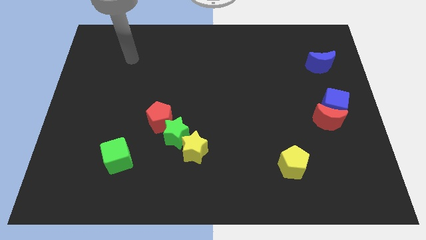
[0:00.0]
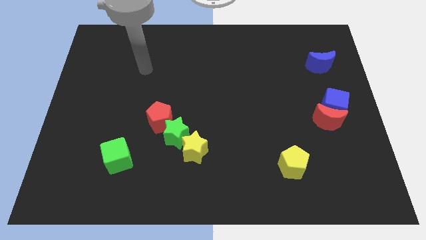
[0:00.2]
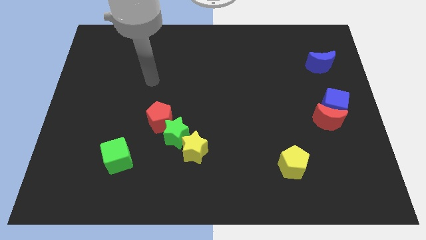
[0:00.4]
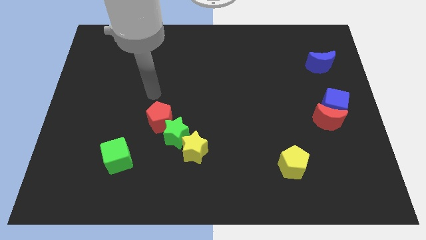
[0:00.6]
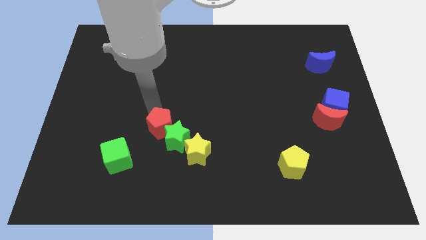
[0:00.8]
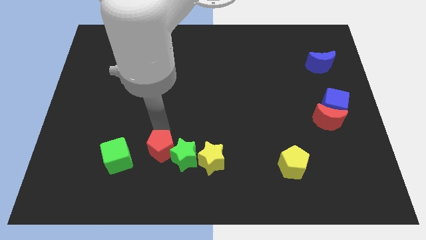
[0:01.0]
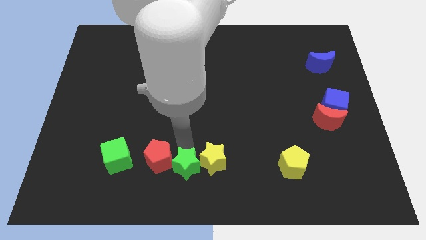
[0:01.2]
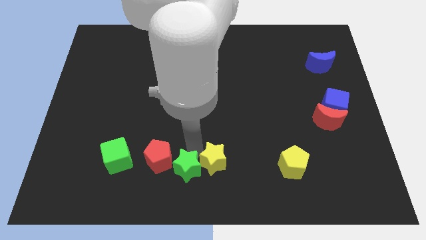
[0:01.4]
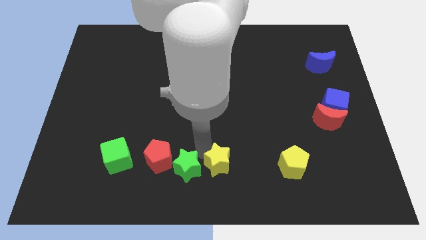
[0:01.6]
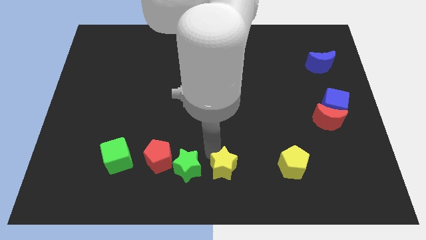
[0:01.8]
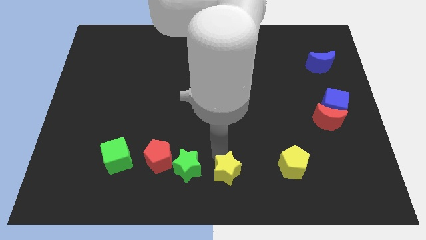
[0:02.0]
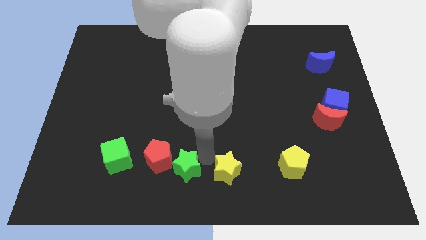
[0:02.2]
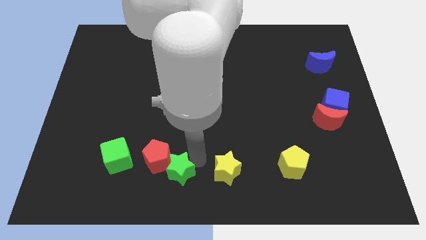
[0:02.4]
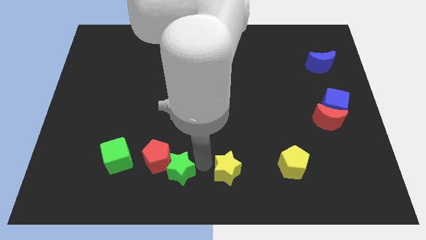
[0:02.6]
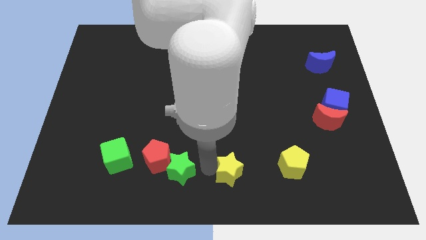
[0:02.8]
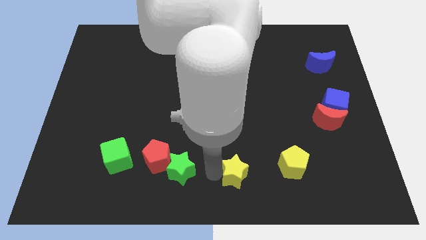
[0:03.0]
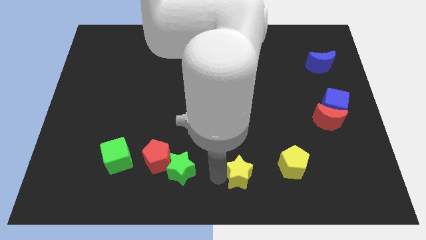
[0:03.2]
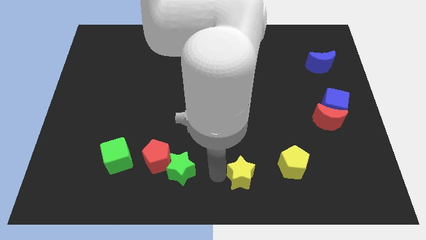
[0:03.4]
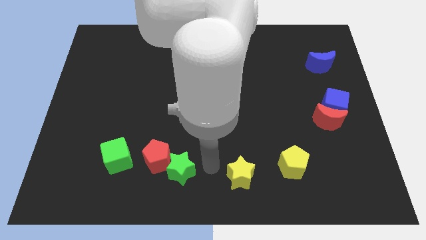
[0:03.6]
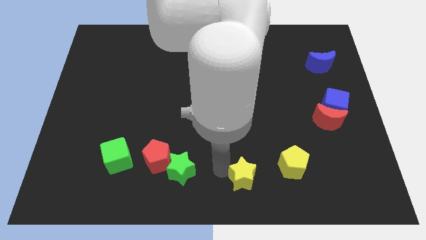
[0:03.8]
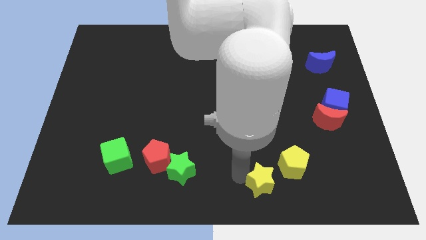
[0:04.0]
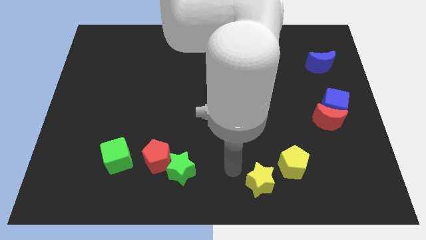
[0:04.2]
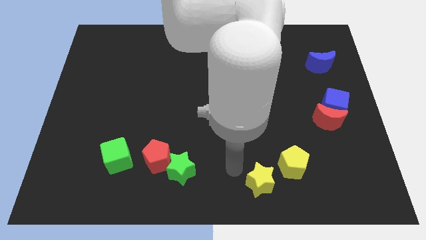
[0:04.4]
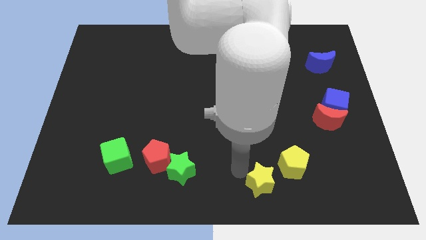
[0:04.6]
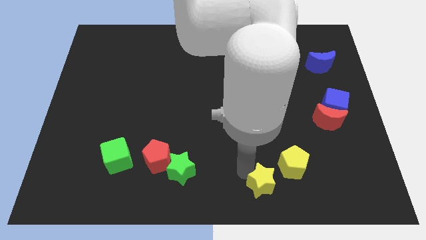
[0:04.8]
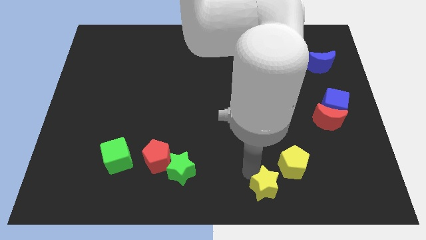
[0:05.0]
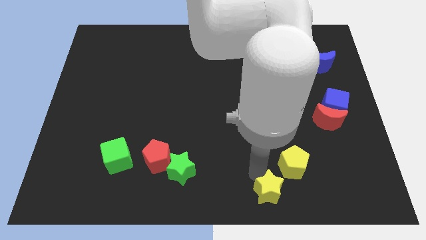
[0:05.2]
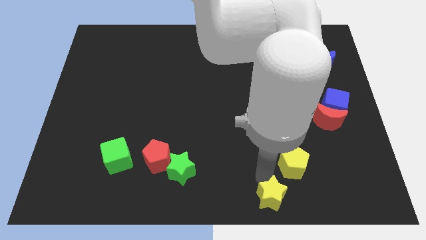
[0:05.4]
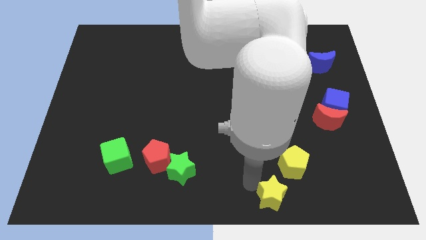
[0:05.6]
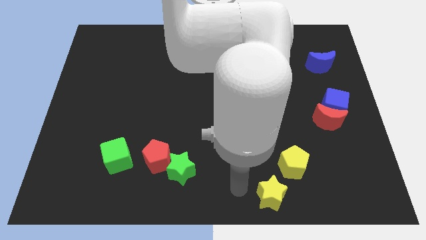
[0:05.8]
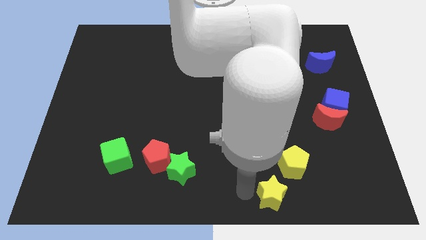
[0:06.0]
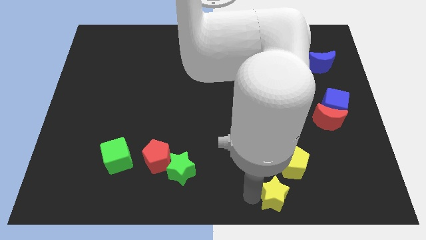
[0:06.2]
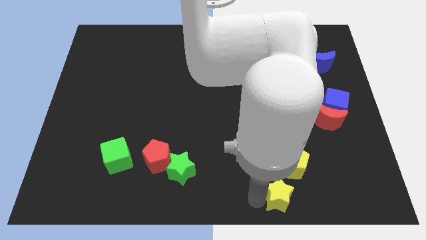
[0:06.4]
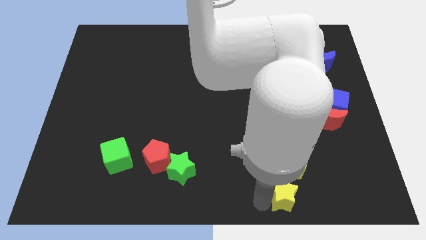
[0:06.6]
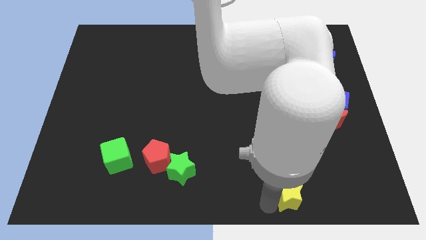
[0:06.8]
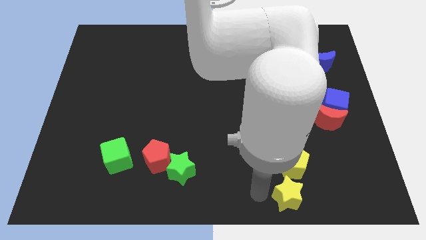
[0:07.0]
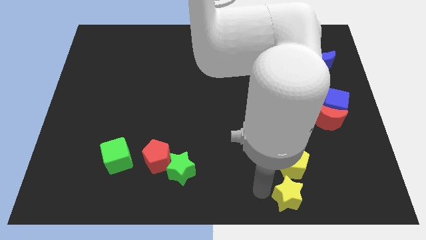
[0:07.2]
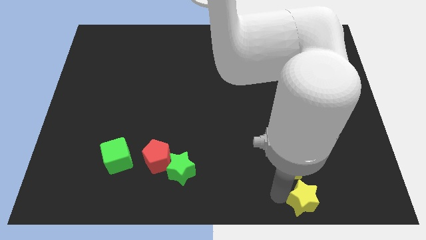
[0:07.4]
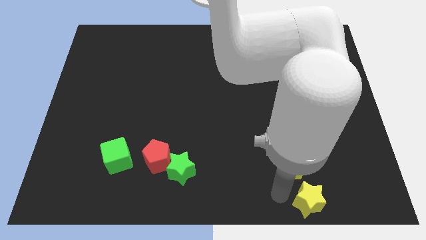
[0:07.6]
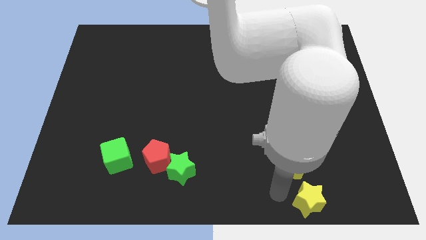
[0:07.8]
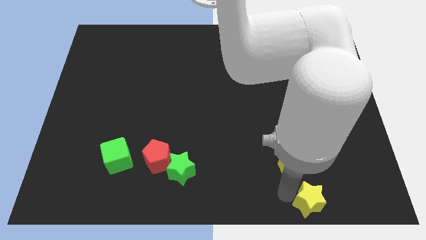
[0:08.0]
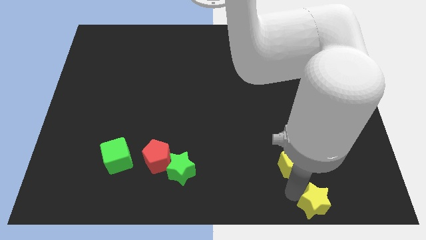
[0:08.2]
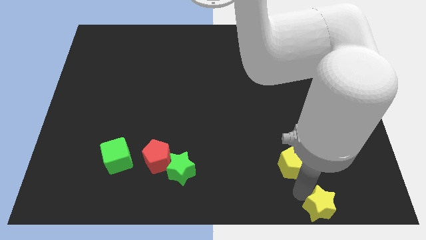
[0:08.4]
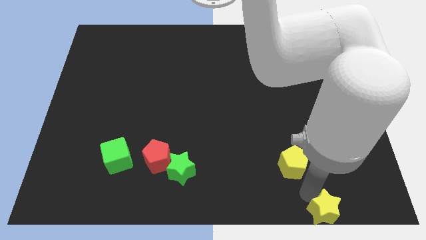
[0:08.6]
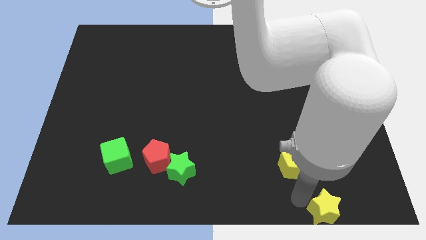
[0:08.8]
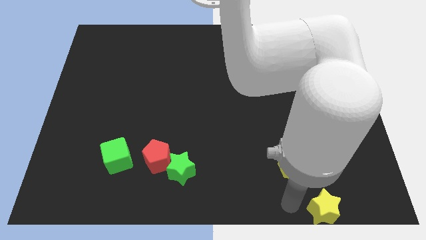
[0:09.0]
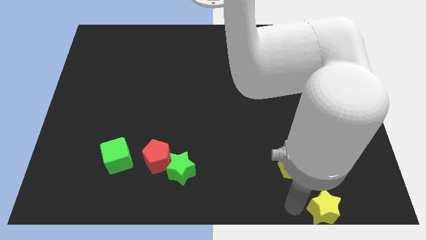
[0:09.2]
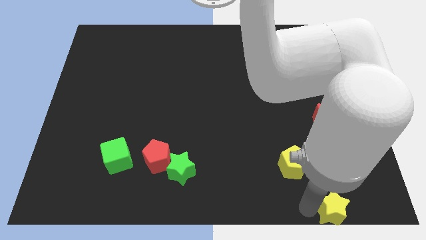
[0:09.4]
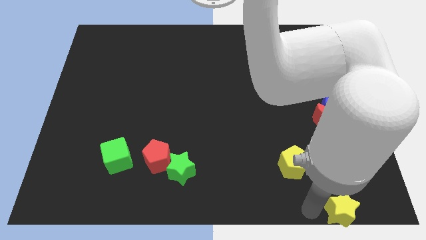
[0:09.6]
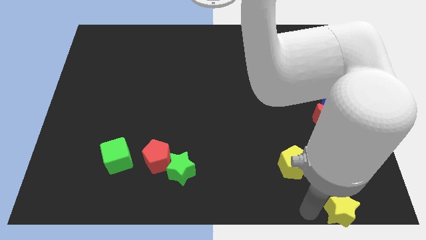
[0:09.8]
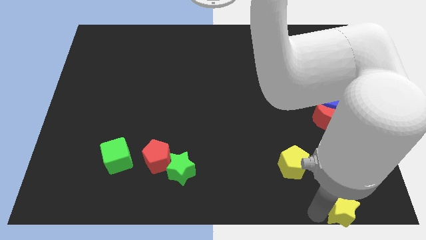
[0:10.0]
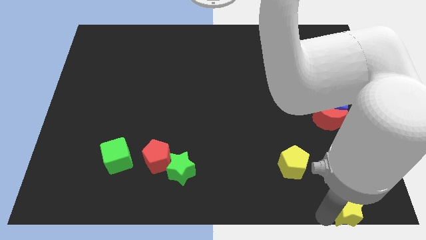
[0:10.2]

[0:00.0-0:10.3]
move the yellow star to the bottom right

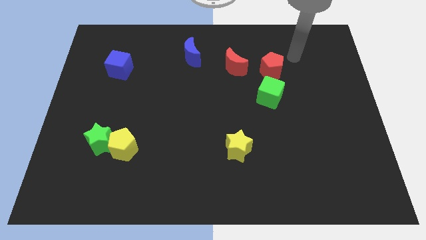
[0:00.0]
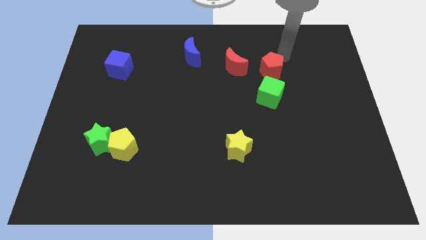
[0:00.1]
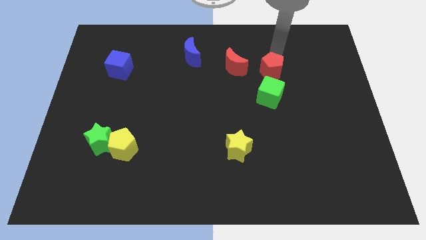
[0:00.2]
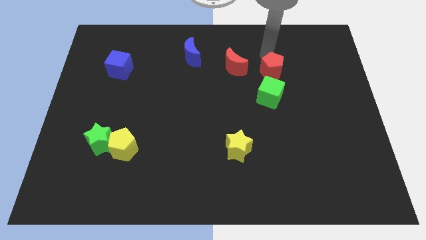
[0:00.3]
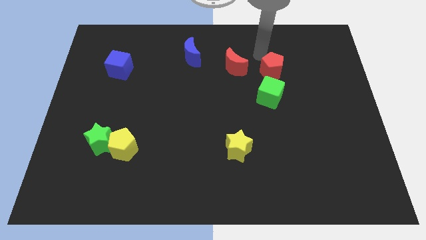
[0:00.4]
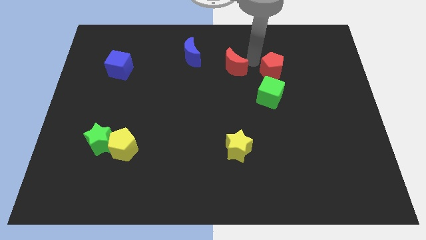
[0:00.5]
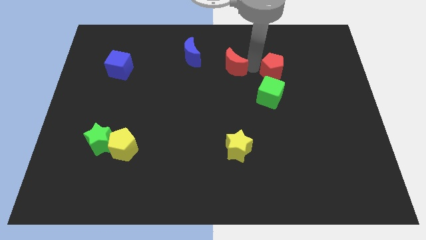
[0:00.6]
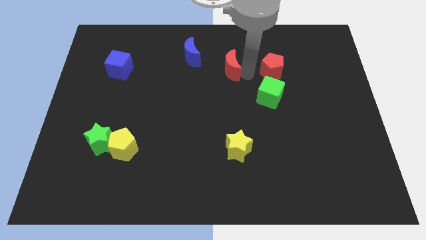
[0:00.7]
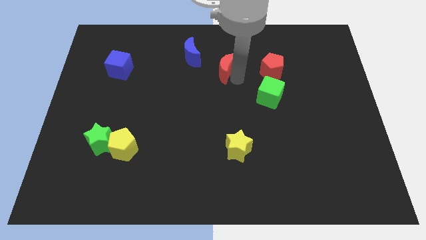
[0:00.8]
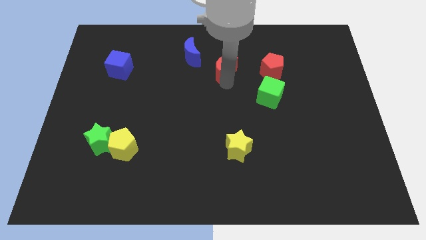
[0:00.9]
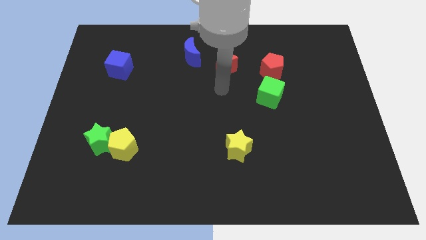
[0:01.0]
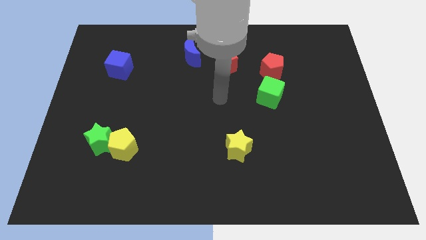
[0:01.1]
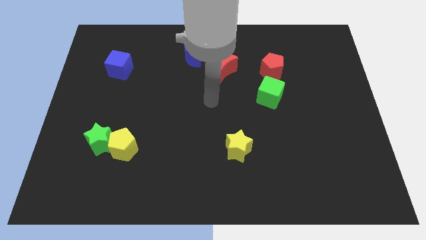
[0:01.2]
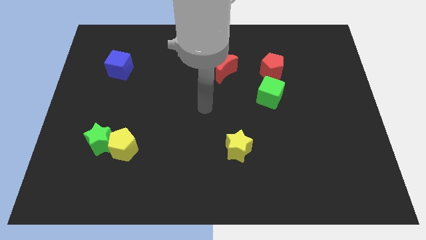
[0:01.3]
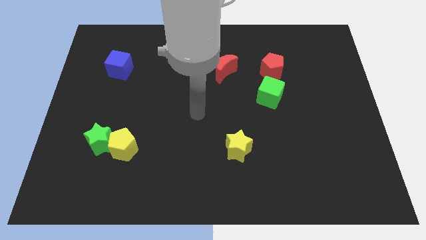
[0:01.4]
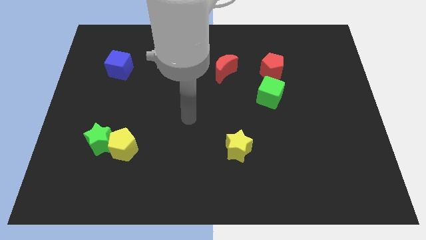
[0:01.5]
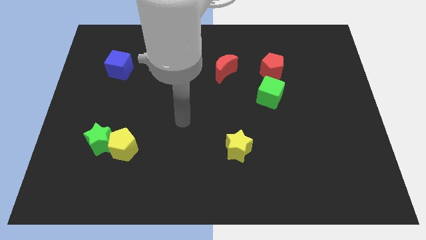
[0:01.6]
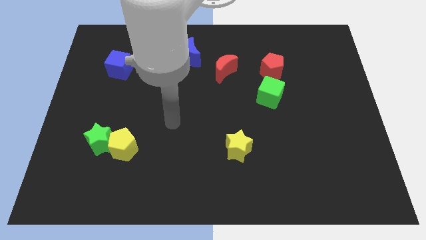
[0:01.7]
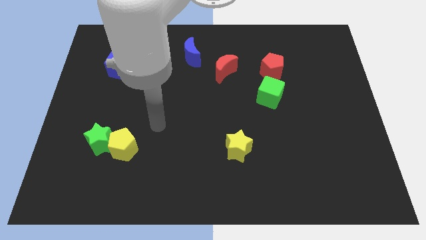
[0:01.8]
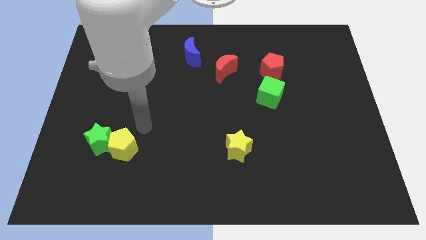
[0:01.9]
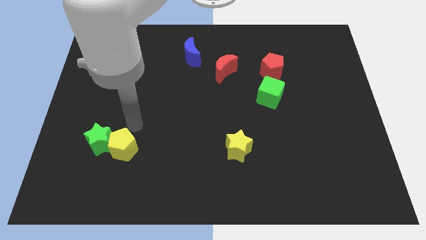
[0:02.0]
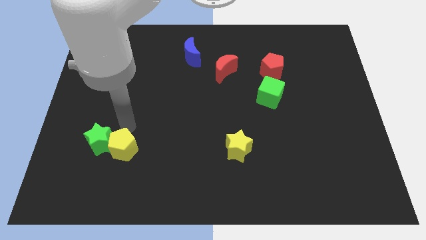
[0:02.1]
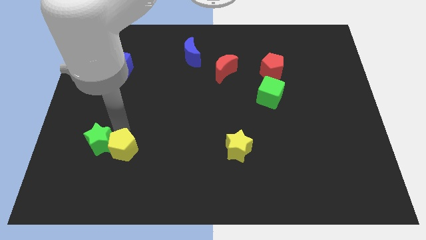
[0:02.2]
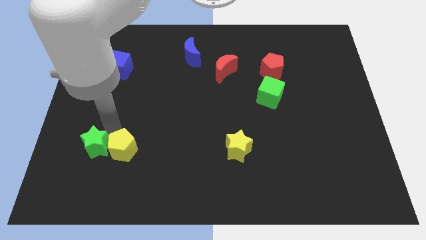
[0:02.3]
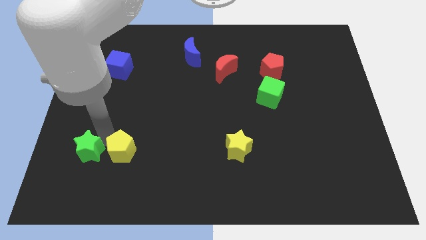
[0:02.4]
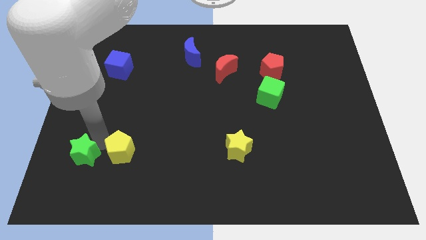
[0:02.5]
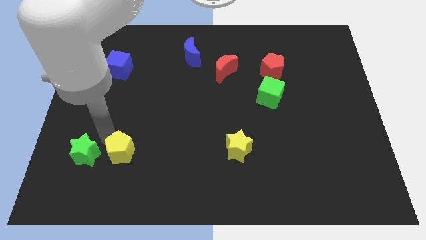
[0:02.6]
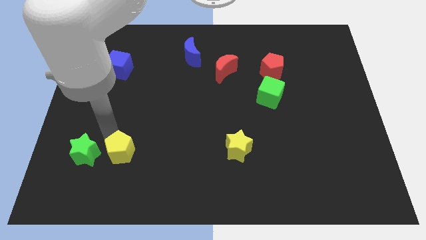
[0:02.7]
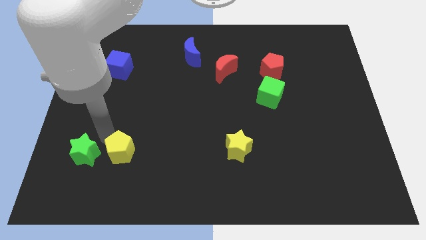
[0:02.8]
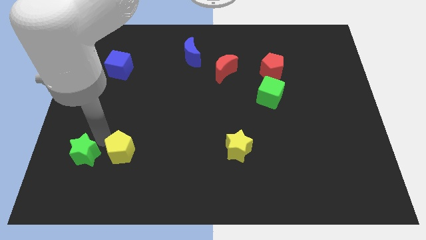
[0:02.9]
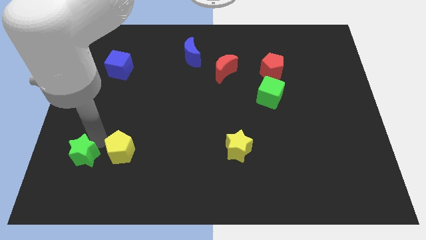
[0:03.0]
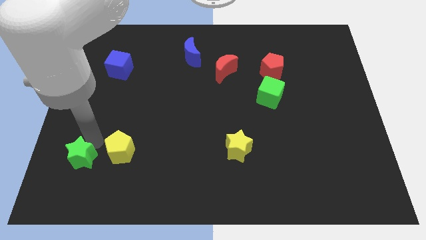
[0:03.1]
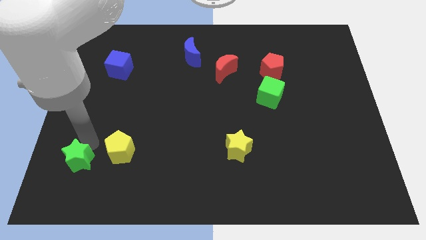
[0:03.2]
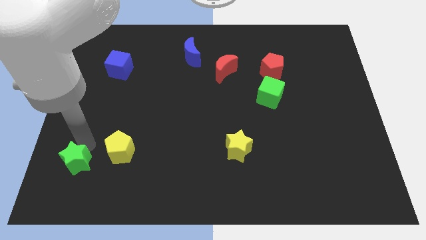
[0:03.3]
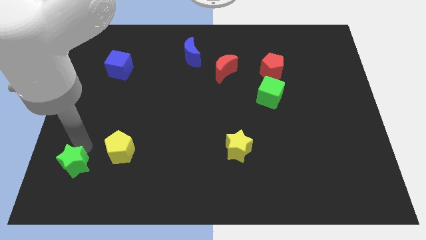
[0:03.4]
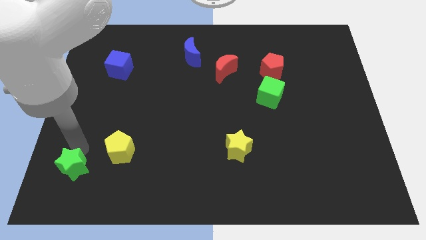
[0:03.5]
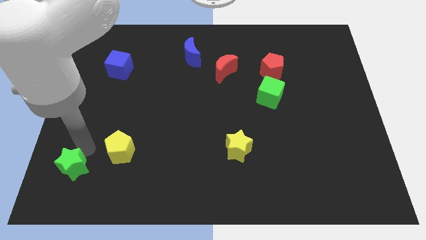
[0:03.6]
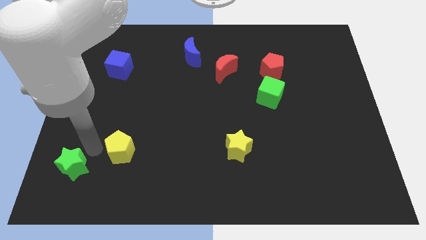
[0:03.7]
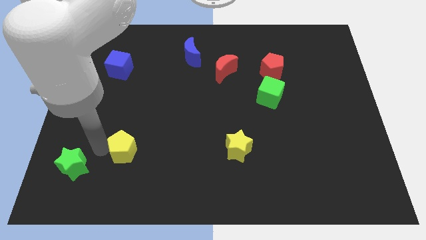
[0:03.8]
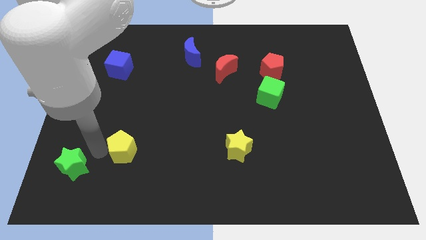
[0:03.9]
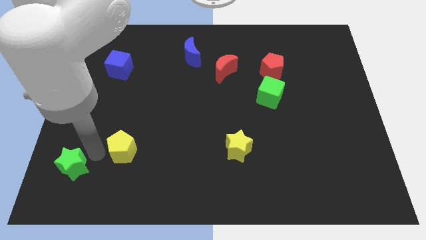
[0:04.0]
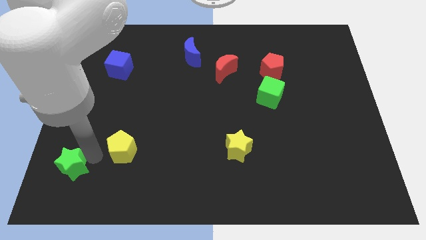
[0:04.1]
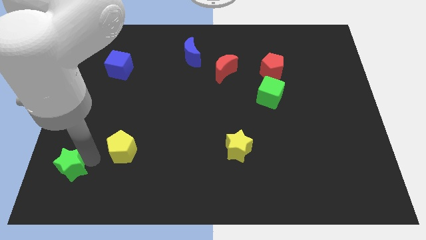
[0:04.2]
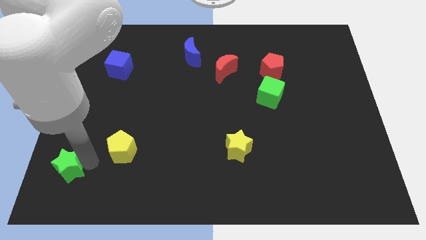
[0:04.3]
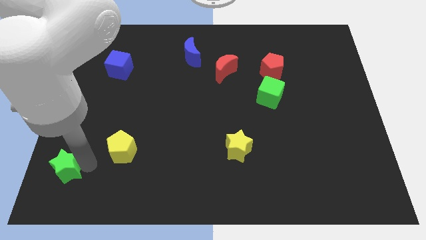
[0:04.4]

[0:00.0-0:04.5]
move the green star to the bottom left corner
